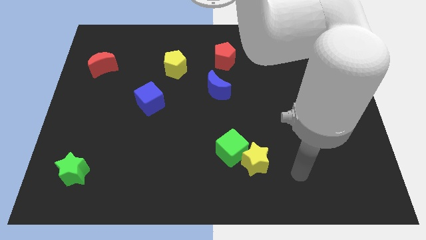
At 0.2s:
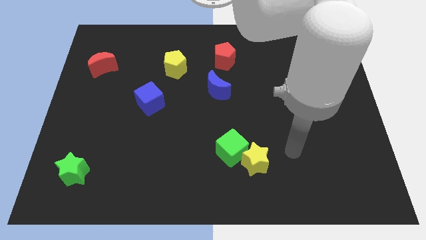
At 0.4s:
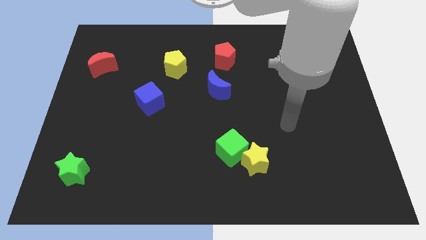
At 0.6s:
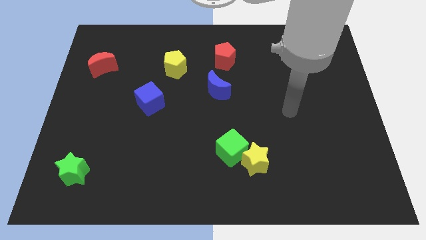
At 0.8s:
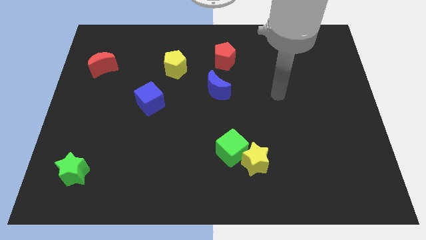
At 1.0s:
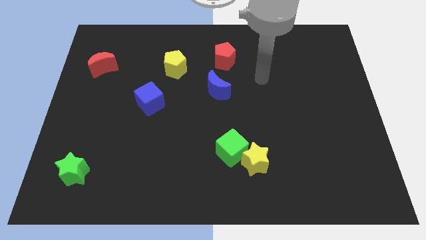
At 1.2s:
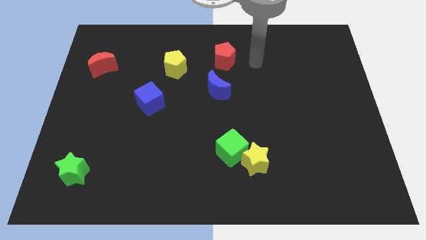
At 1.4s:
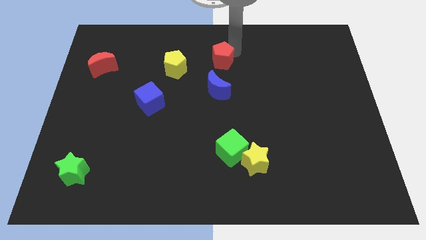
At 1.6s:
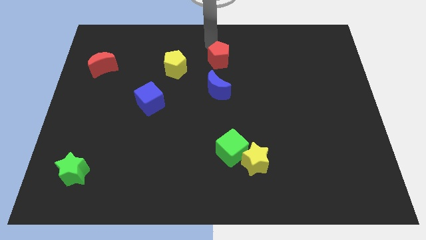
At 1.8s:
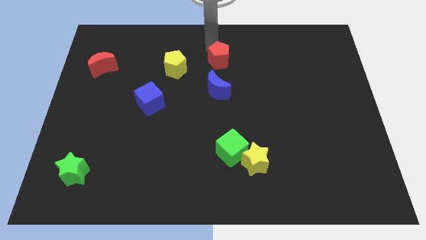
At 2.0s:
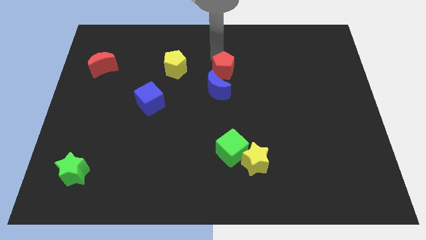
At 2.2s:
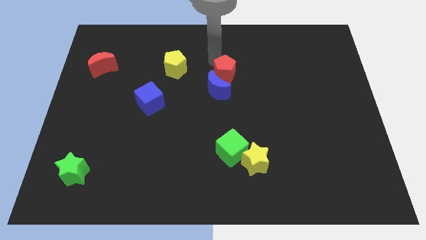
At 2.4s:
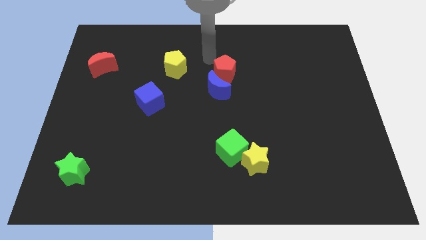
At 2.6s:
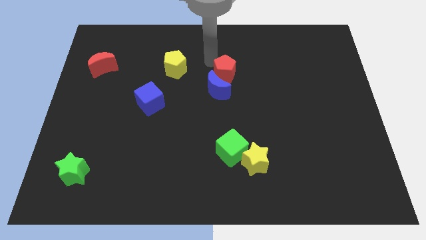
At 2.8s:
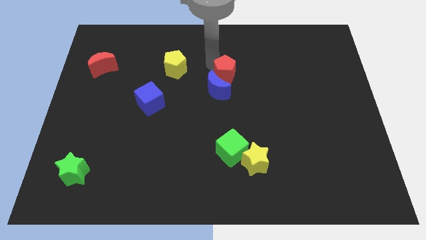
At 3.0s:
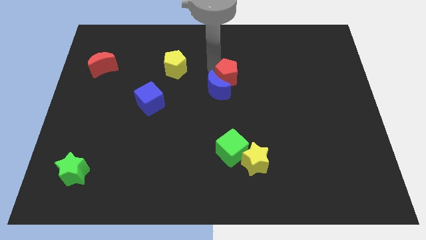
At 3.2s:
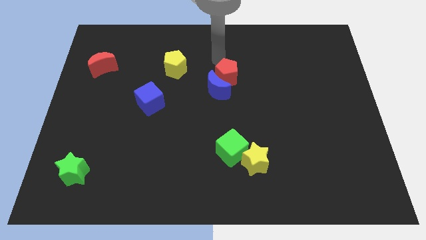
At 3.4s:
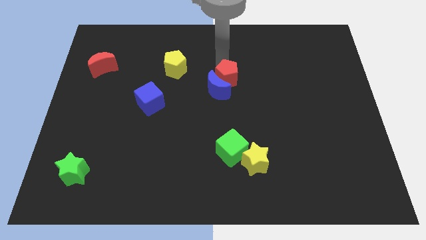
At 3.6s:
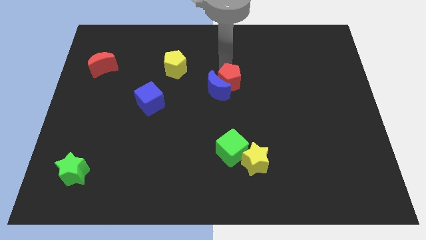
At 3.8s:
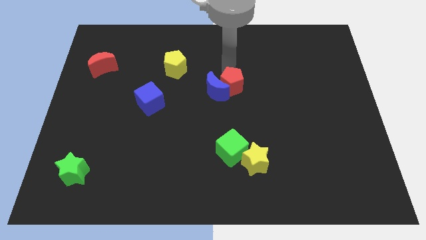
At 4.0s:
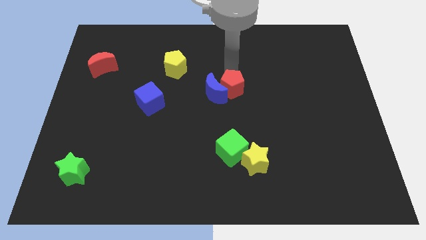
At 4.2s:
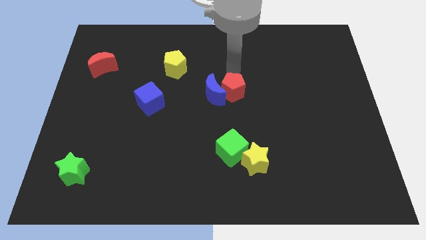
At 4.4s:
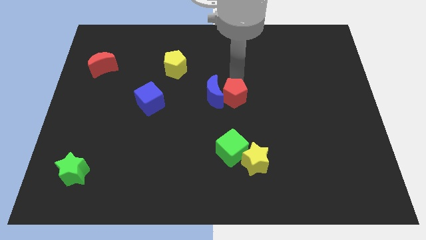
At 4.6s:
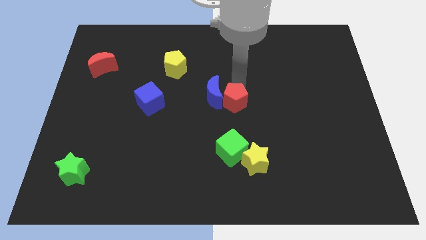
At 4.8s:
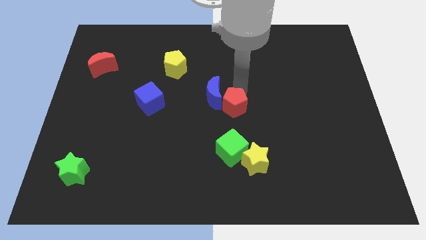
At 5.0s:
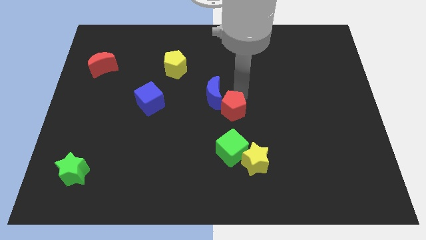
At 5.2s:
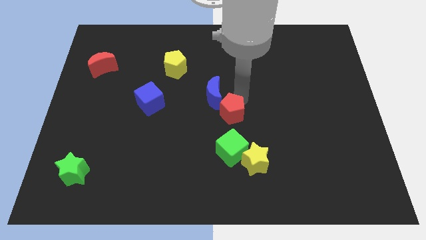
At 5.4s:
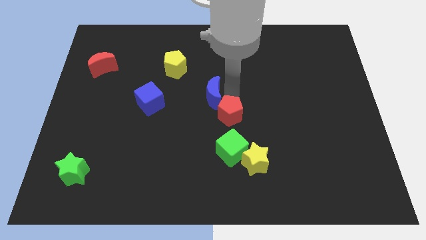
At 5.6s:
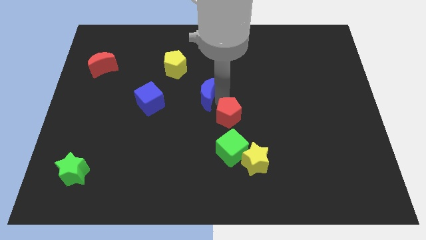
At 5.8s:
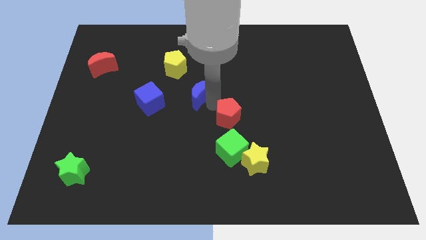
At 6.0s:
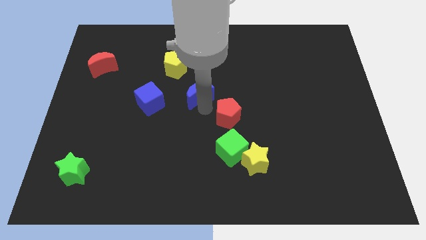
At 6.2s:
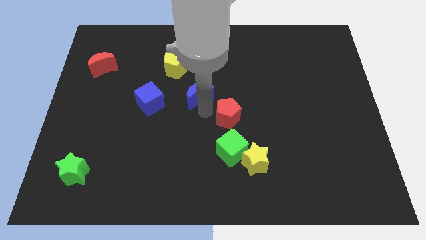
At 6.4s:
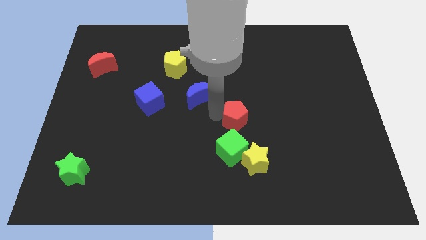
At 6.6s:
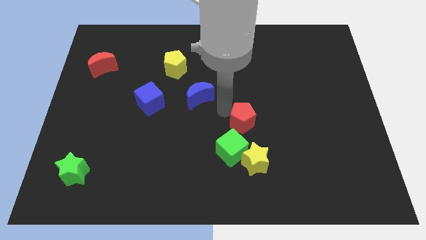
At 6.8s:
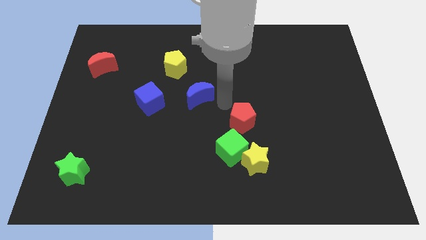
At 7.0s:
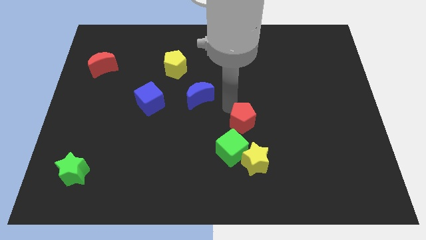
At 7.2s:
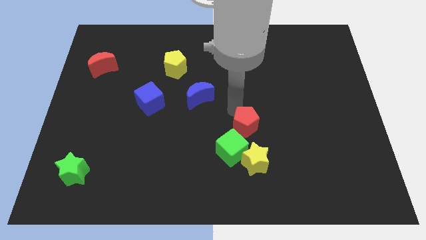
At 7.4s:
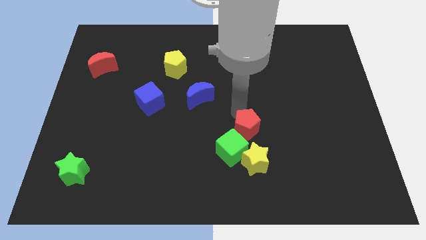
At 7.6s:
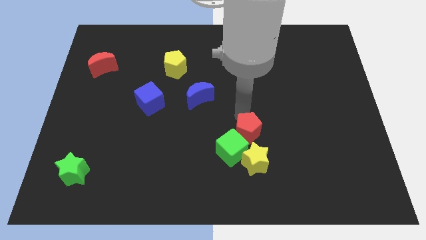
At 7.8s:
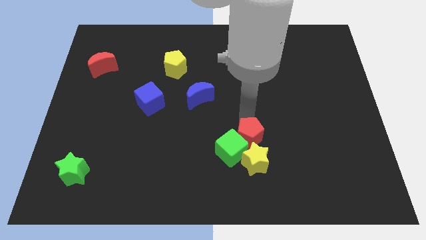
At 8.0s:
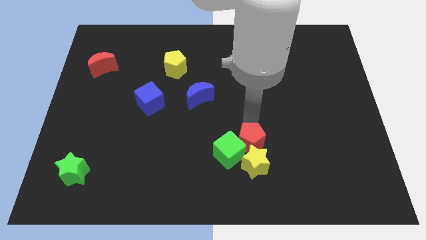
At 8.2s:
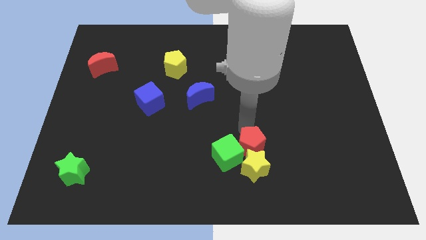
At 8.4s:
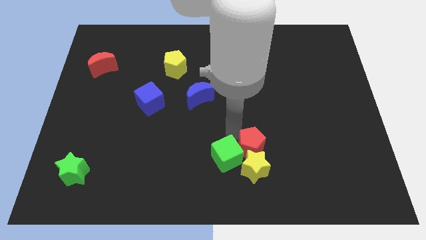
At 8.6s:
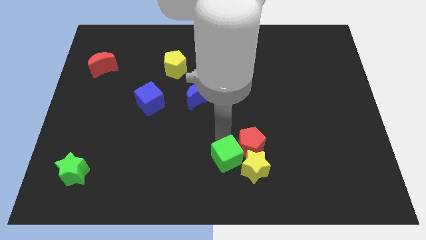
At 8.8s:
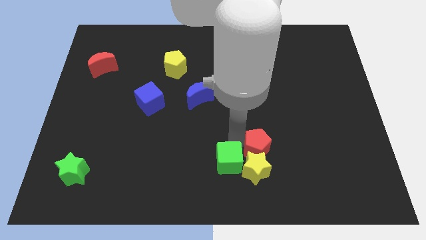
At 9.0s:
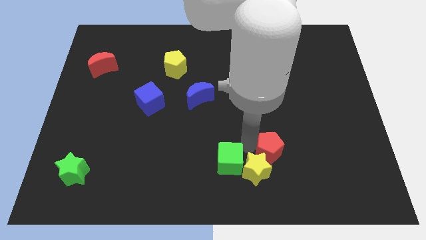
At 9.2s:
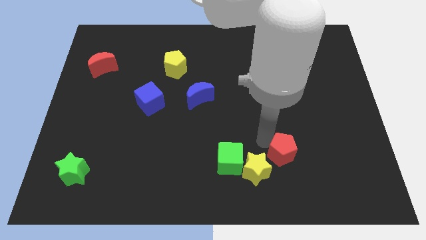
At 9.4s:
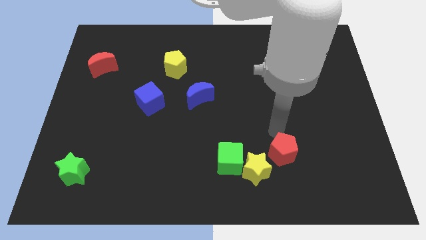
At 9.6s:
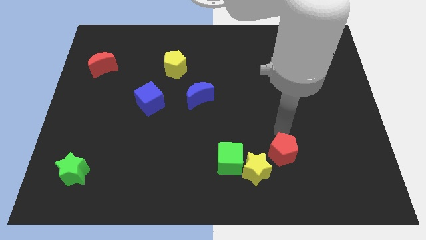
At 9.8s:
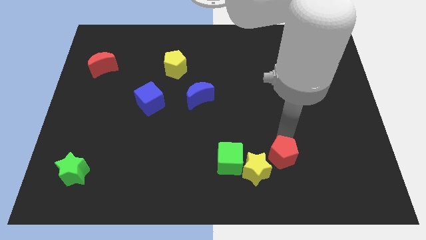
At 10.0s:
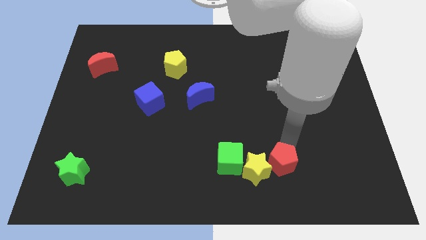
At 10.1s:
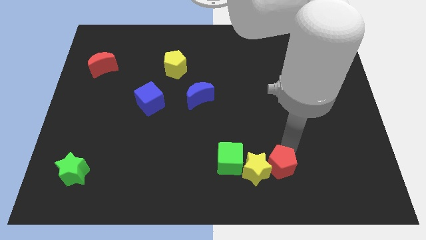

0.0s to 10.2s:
move the red pentagon to the bottom right of the yellow star

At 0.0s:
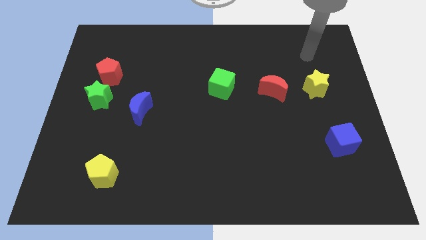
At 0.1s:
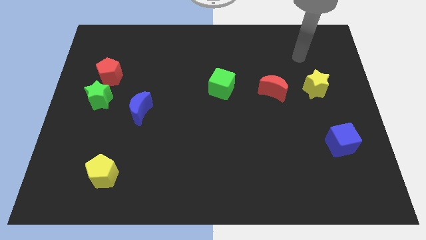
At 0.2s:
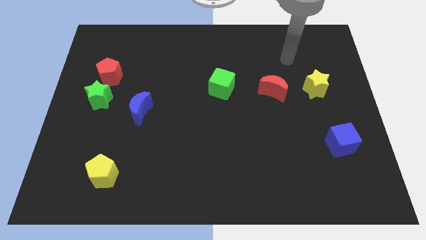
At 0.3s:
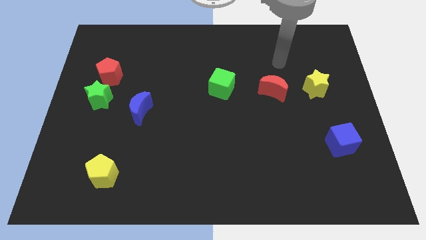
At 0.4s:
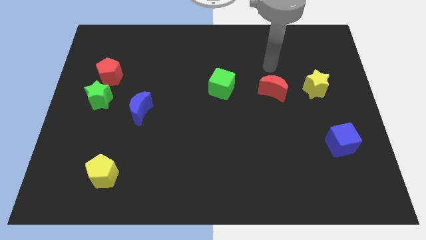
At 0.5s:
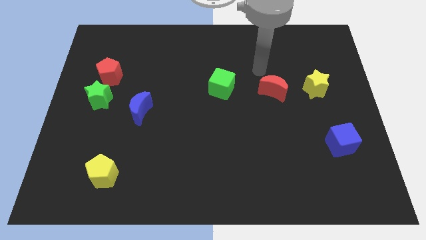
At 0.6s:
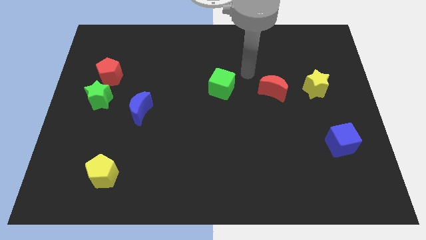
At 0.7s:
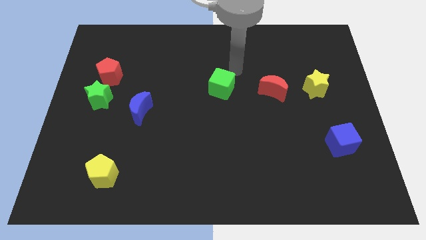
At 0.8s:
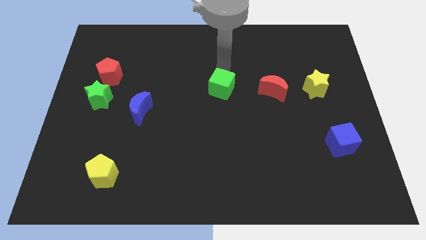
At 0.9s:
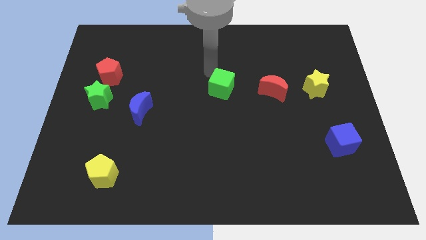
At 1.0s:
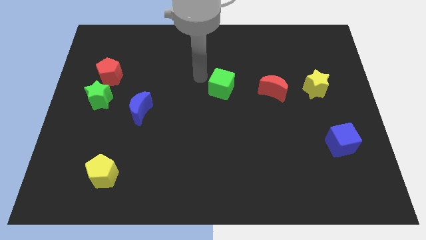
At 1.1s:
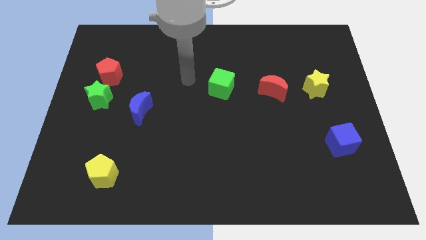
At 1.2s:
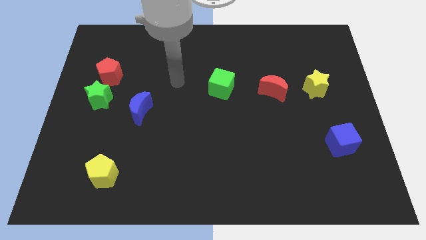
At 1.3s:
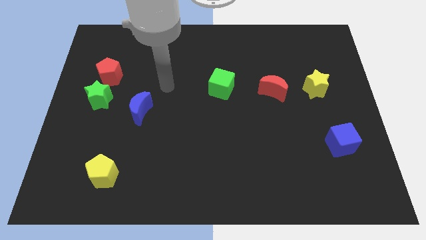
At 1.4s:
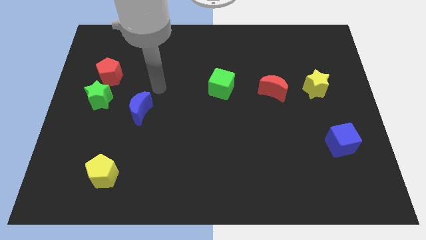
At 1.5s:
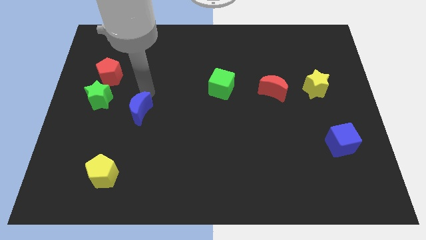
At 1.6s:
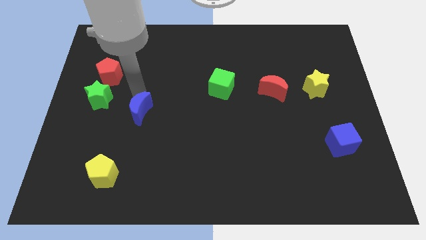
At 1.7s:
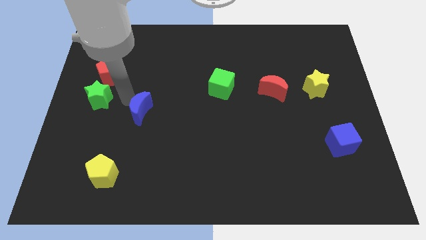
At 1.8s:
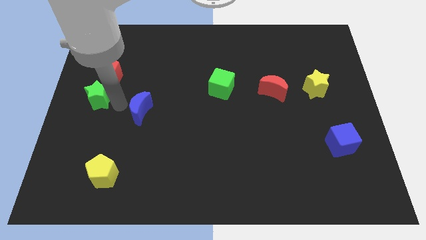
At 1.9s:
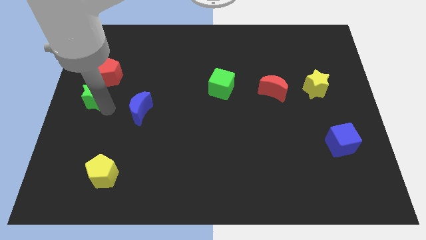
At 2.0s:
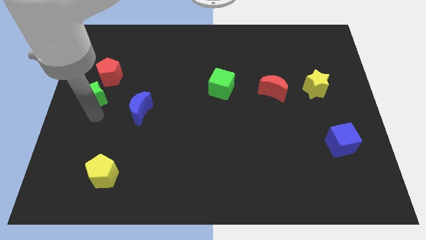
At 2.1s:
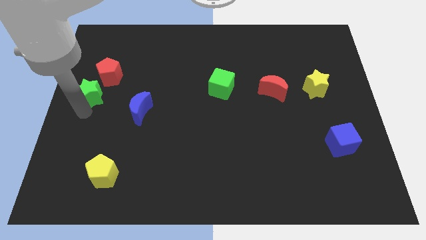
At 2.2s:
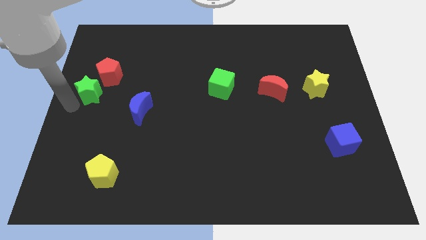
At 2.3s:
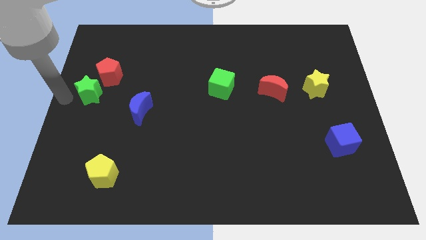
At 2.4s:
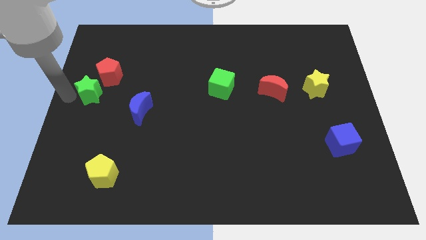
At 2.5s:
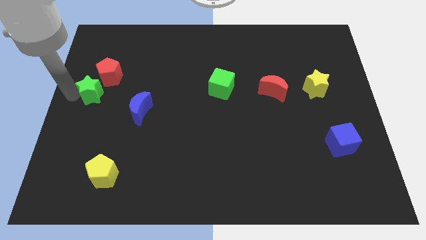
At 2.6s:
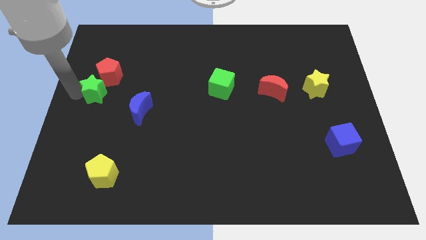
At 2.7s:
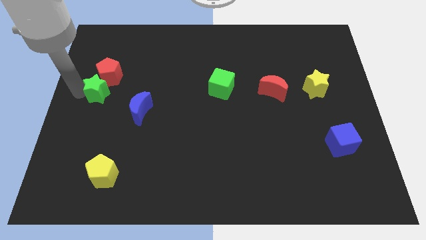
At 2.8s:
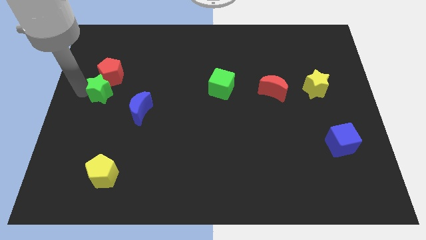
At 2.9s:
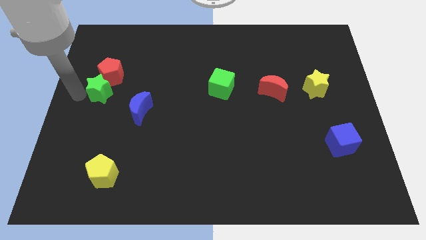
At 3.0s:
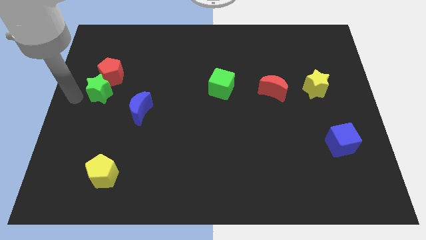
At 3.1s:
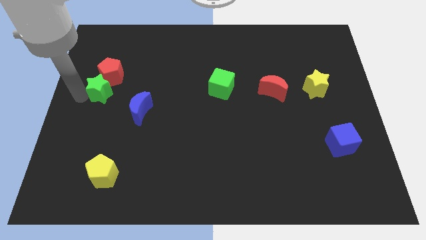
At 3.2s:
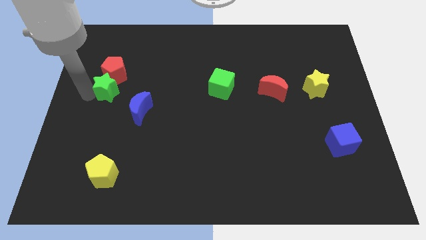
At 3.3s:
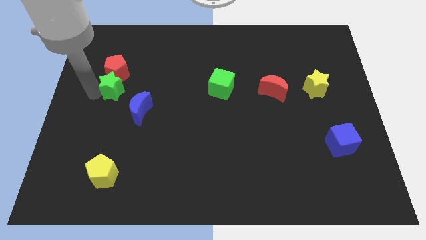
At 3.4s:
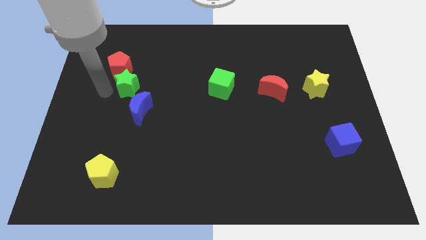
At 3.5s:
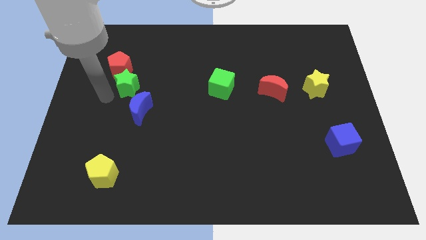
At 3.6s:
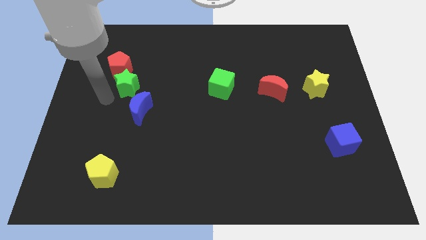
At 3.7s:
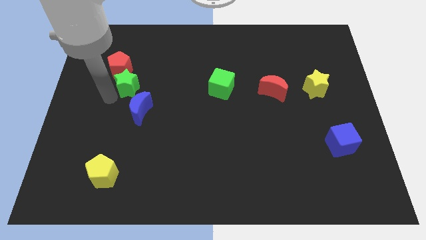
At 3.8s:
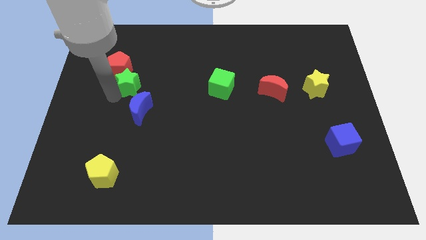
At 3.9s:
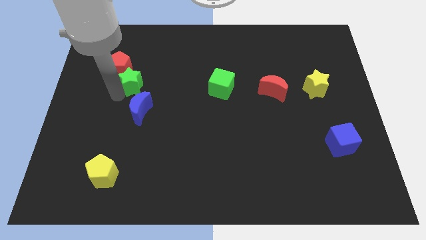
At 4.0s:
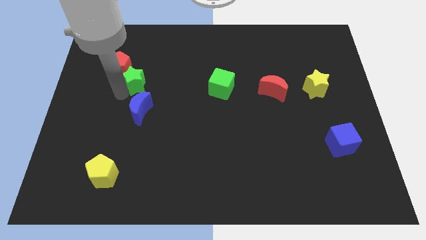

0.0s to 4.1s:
move the green star to the right of the red pentagon
